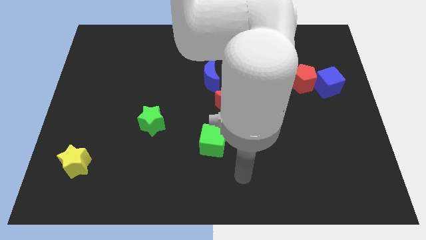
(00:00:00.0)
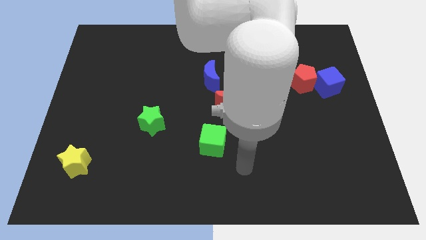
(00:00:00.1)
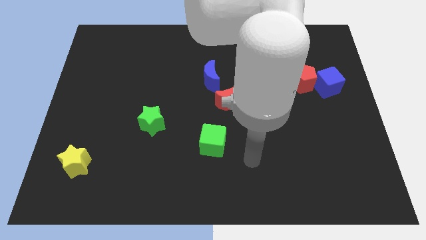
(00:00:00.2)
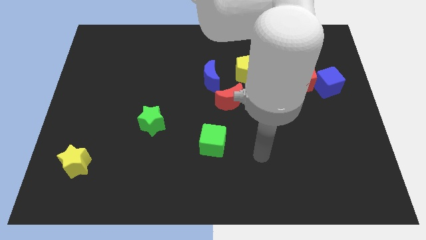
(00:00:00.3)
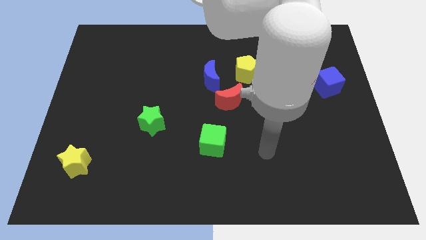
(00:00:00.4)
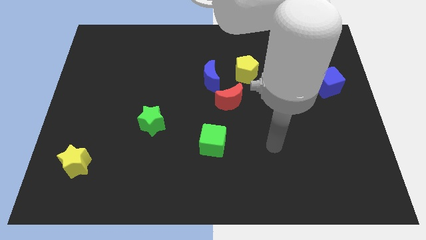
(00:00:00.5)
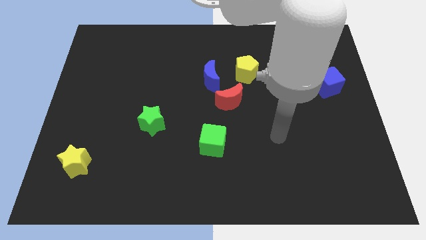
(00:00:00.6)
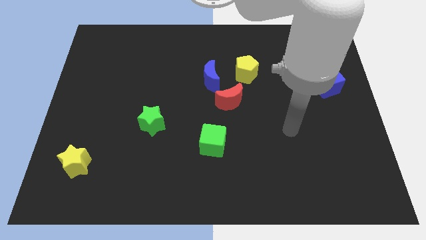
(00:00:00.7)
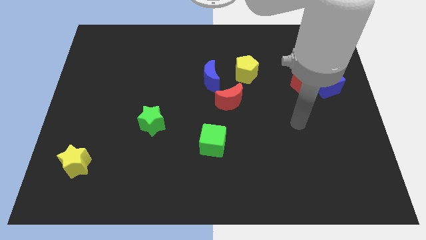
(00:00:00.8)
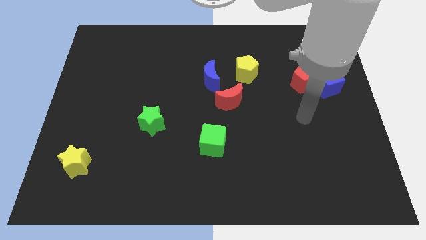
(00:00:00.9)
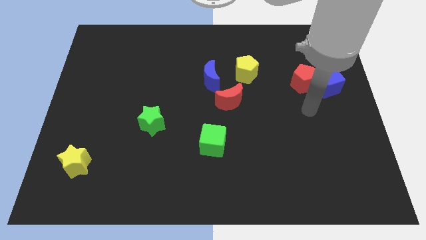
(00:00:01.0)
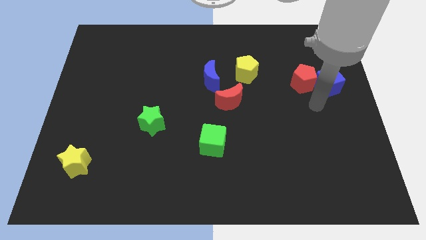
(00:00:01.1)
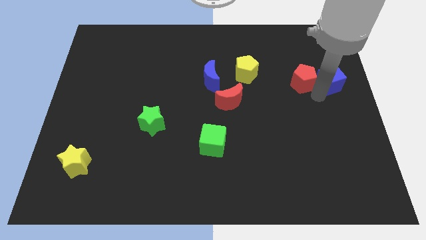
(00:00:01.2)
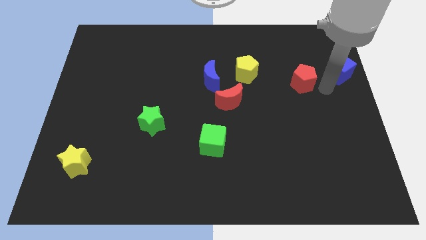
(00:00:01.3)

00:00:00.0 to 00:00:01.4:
pull the red pentagon apart from the blue cube

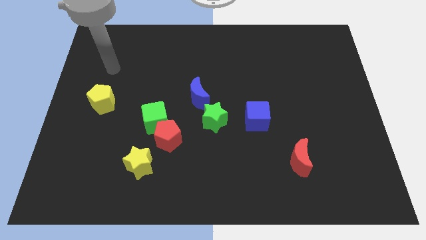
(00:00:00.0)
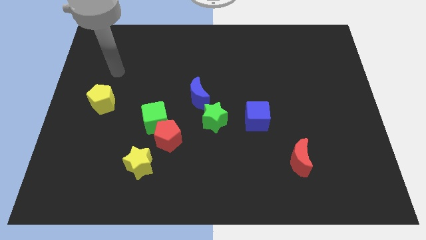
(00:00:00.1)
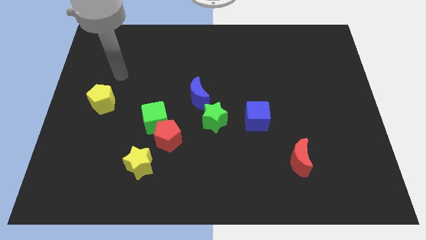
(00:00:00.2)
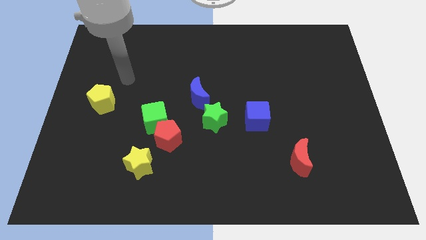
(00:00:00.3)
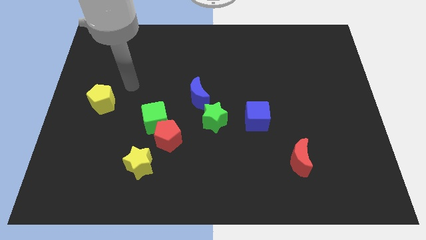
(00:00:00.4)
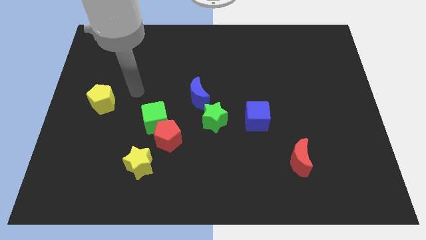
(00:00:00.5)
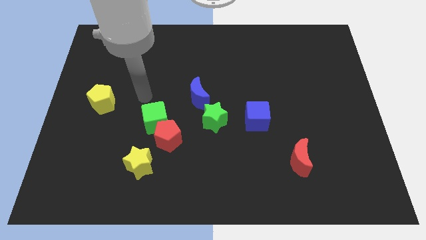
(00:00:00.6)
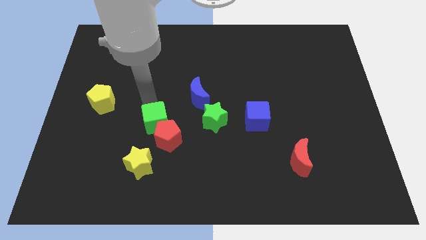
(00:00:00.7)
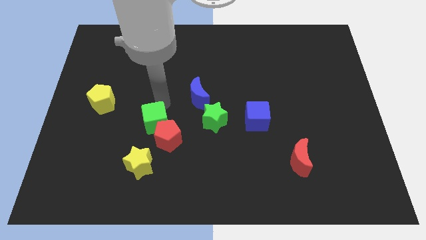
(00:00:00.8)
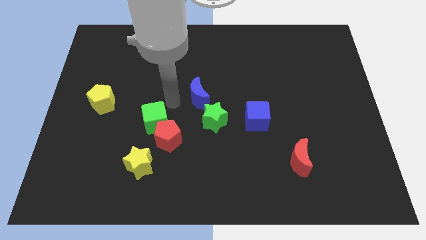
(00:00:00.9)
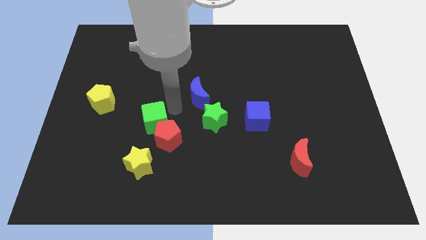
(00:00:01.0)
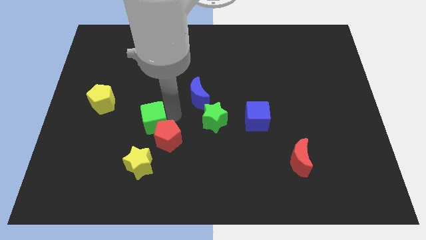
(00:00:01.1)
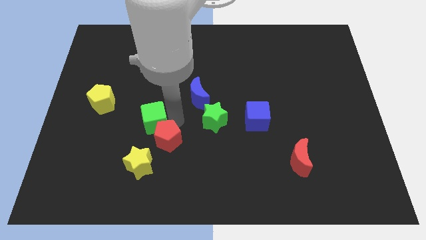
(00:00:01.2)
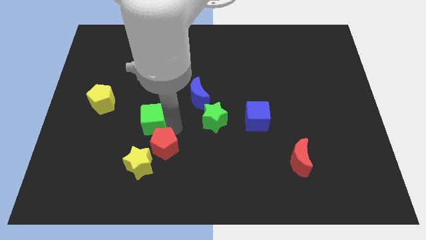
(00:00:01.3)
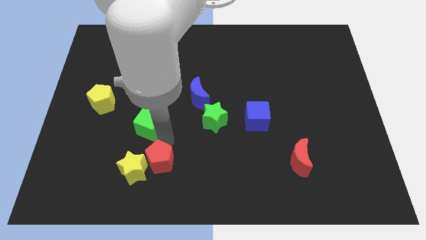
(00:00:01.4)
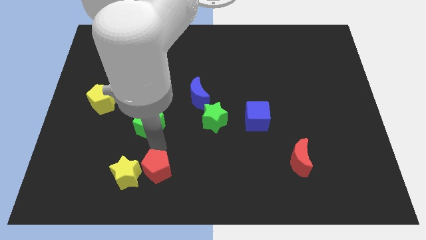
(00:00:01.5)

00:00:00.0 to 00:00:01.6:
separate the green cube from the red pentagon

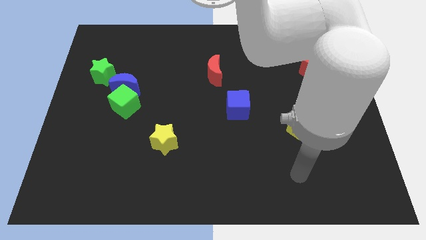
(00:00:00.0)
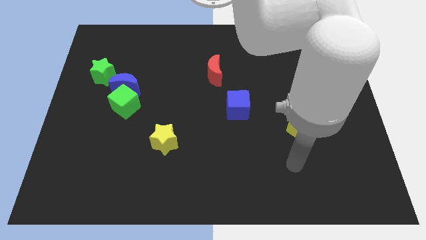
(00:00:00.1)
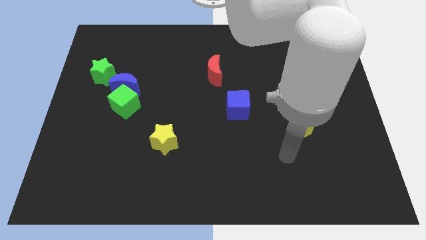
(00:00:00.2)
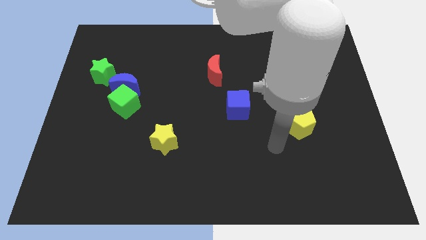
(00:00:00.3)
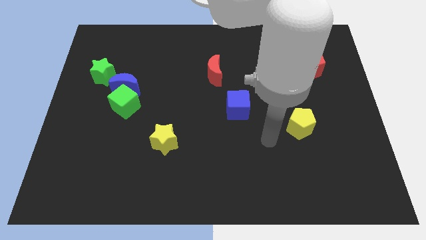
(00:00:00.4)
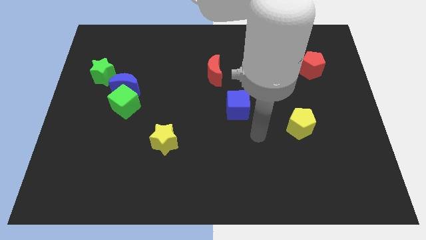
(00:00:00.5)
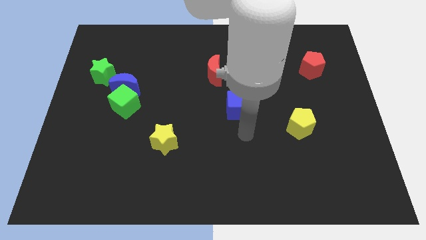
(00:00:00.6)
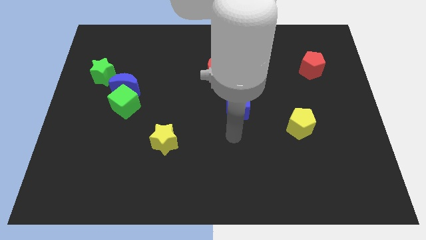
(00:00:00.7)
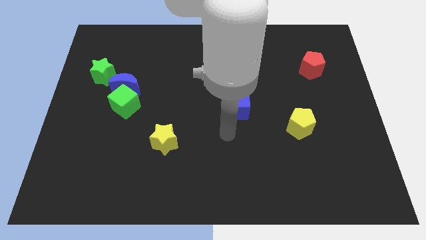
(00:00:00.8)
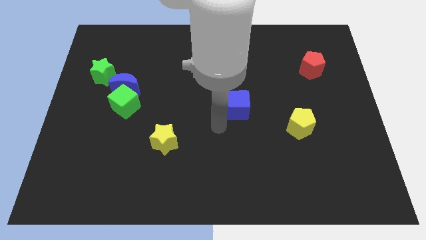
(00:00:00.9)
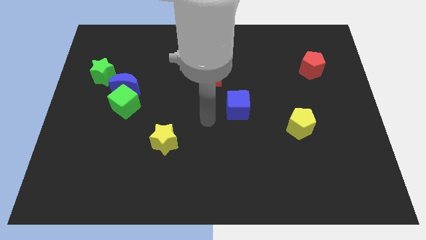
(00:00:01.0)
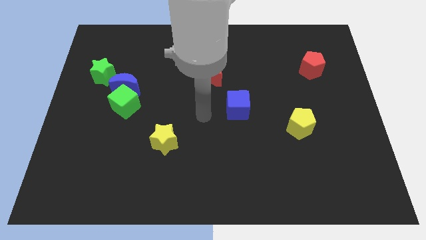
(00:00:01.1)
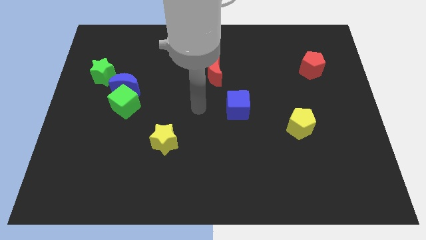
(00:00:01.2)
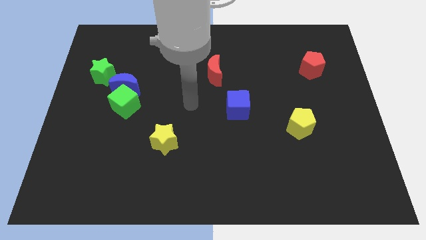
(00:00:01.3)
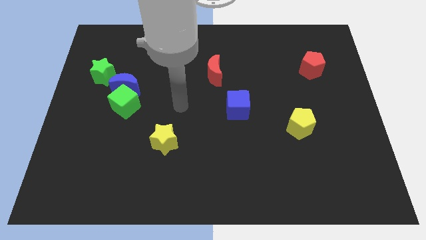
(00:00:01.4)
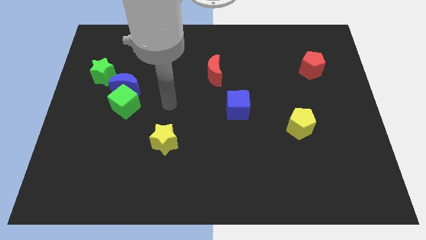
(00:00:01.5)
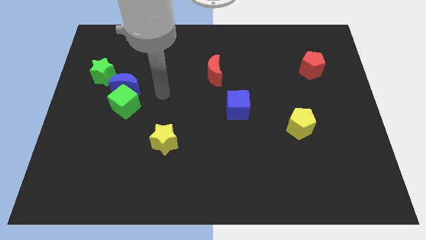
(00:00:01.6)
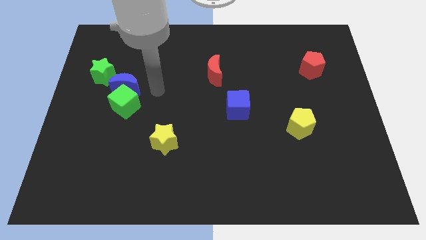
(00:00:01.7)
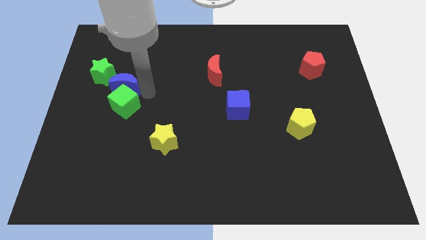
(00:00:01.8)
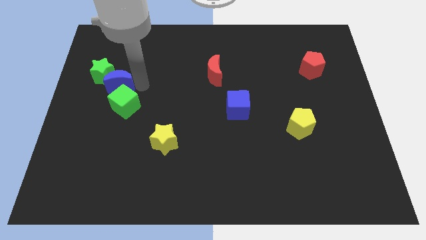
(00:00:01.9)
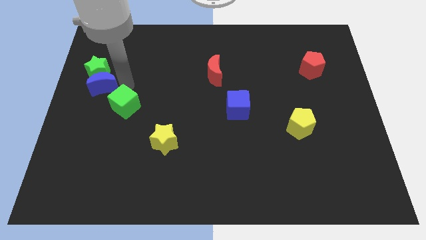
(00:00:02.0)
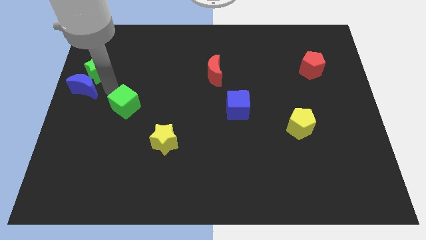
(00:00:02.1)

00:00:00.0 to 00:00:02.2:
pull the green cube apart from the blue moon

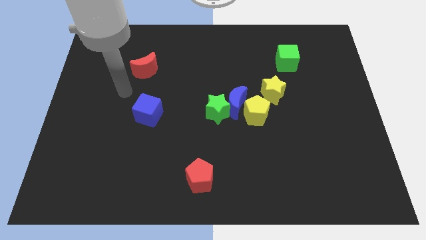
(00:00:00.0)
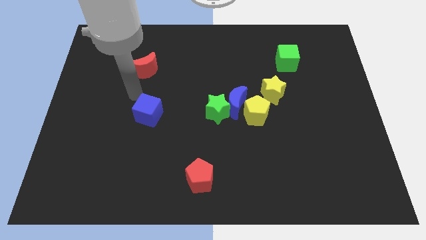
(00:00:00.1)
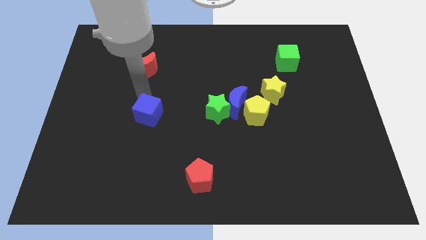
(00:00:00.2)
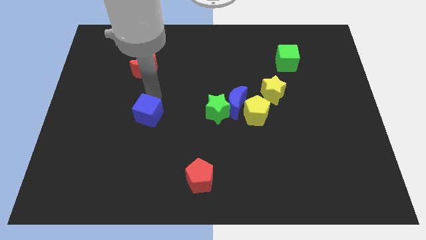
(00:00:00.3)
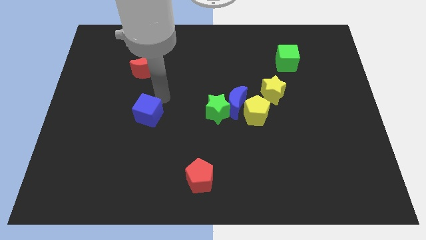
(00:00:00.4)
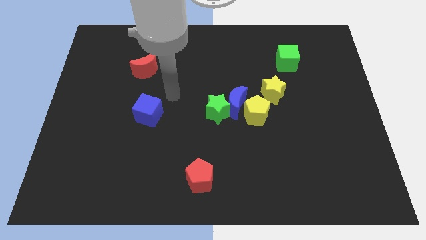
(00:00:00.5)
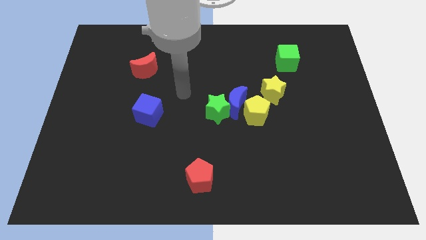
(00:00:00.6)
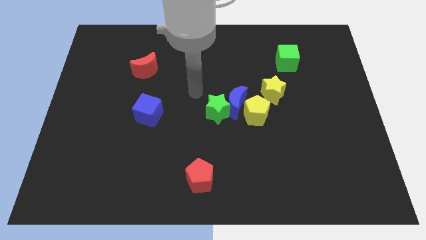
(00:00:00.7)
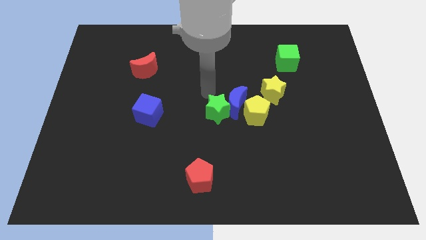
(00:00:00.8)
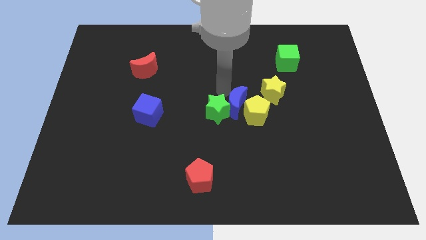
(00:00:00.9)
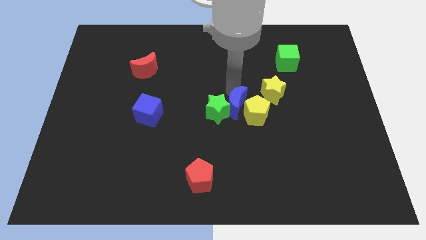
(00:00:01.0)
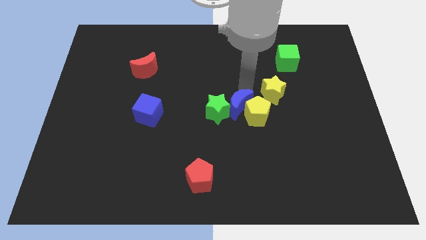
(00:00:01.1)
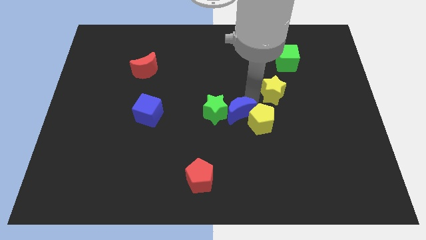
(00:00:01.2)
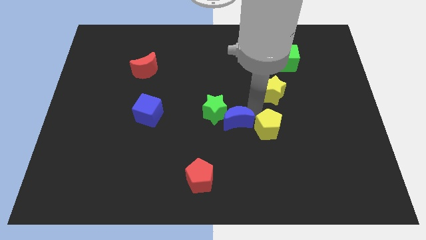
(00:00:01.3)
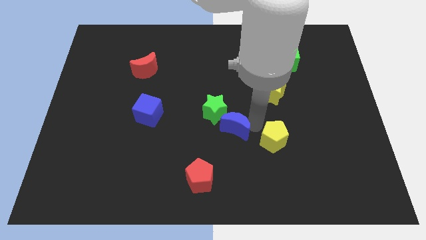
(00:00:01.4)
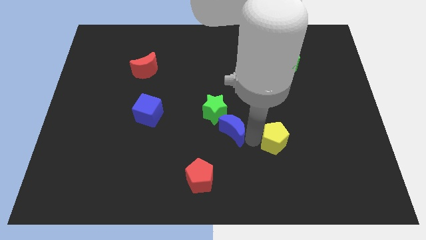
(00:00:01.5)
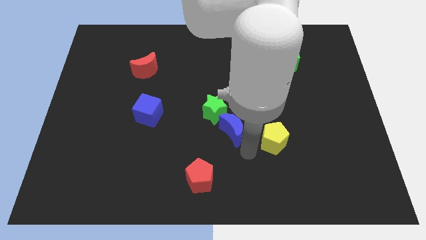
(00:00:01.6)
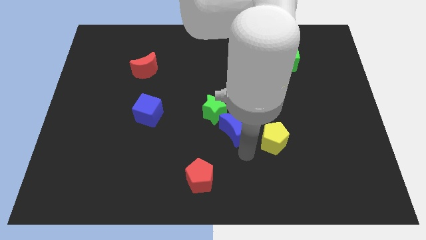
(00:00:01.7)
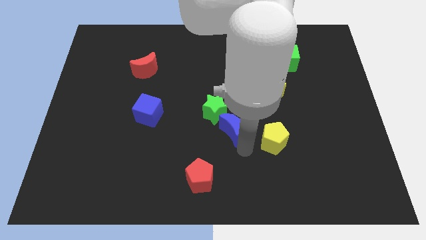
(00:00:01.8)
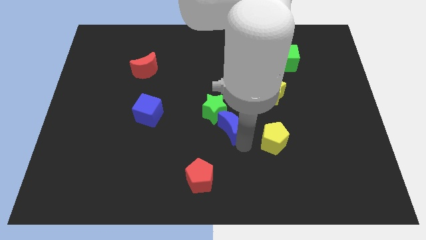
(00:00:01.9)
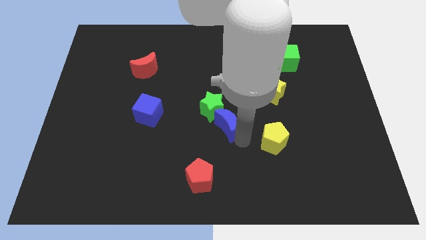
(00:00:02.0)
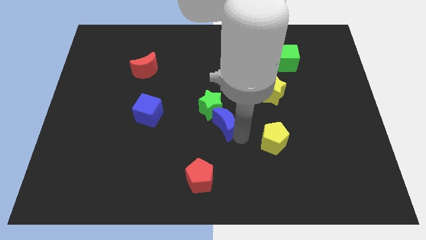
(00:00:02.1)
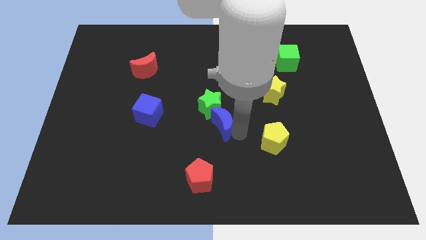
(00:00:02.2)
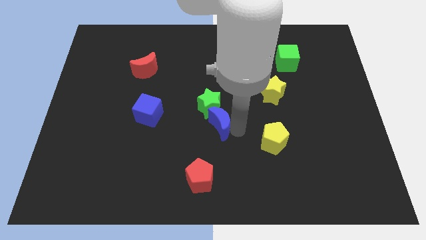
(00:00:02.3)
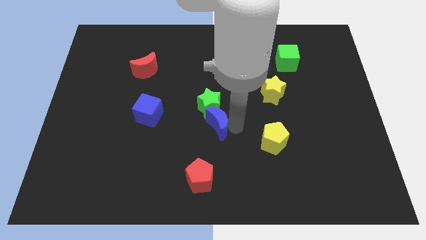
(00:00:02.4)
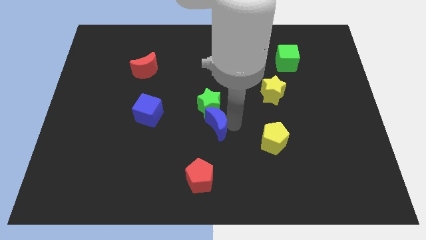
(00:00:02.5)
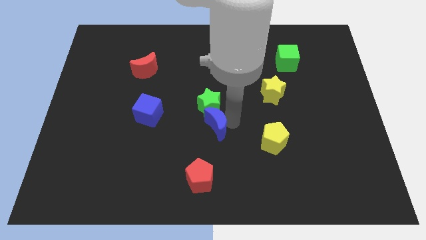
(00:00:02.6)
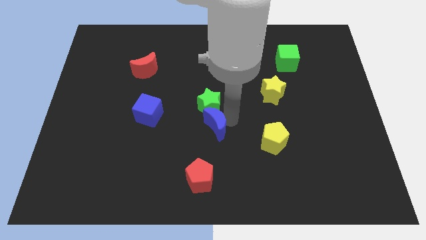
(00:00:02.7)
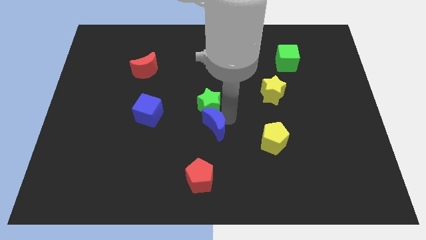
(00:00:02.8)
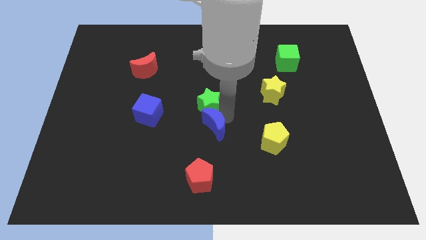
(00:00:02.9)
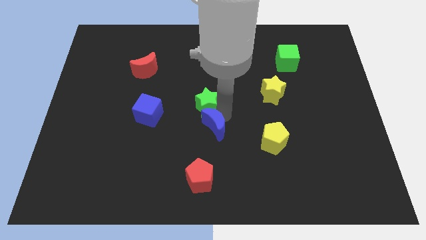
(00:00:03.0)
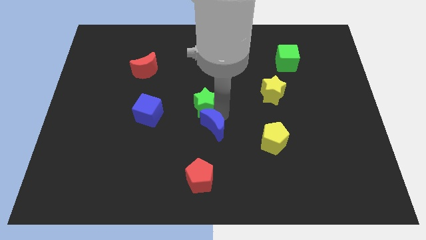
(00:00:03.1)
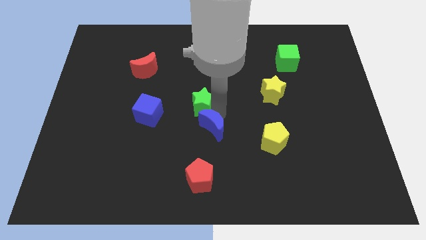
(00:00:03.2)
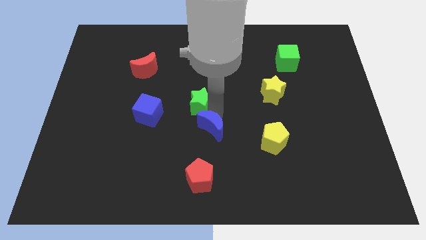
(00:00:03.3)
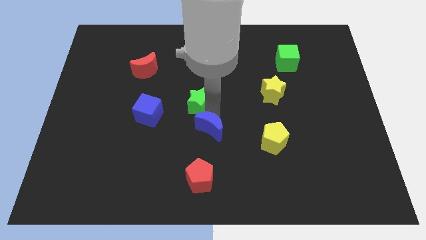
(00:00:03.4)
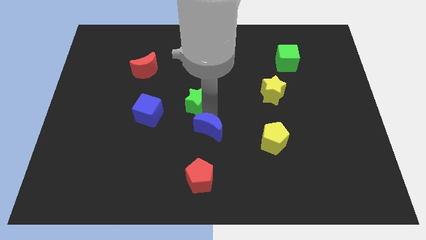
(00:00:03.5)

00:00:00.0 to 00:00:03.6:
move the blue moon away from the green star, yellow pentagon, and yellow star

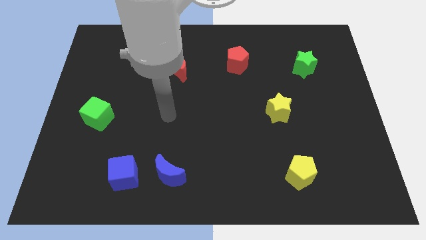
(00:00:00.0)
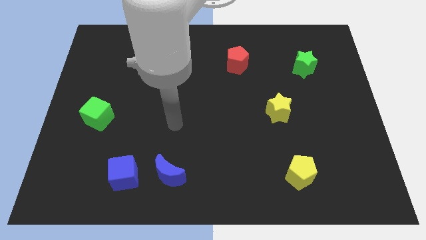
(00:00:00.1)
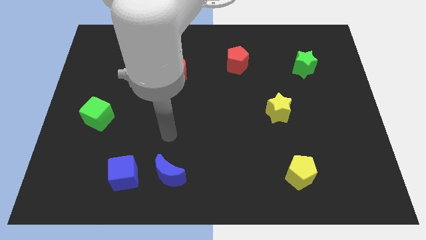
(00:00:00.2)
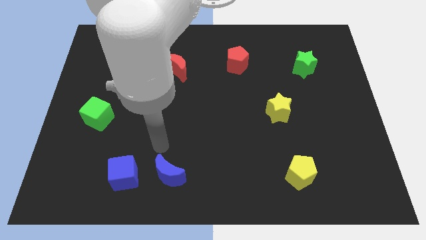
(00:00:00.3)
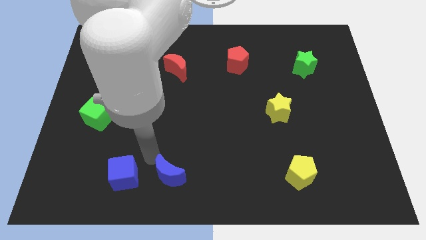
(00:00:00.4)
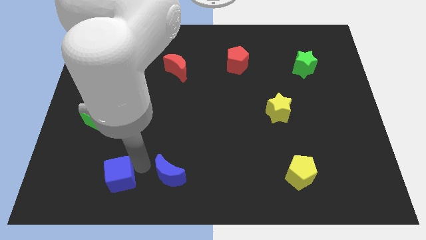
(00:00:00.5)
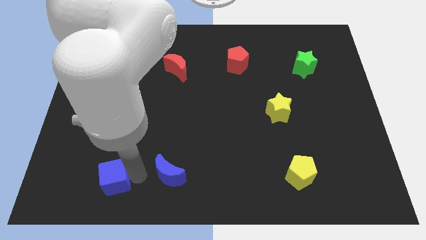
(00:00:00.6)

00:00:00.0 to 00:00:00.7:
move the blue moon away from the blue cube
